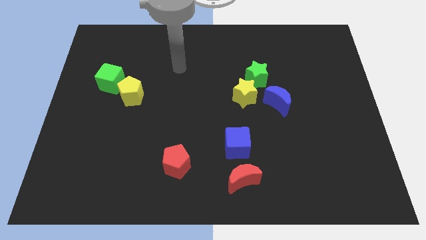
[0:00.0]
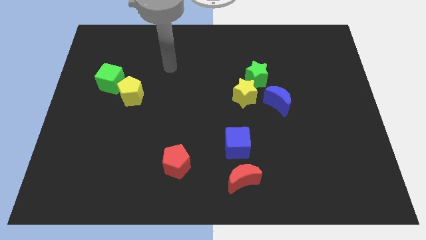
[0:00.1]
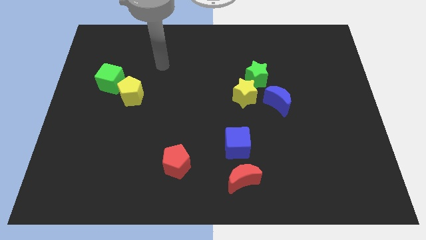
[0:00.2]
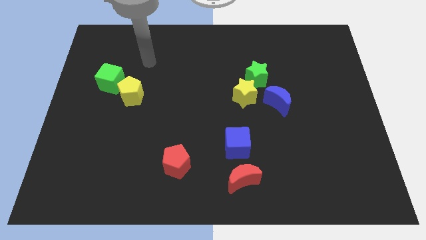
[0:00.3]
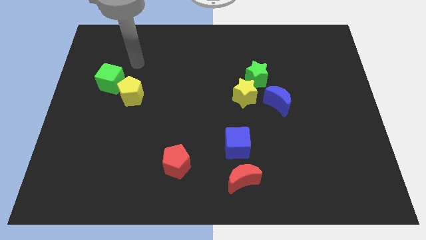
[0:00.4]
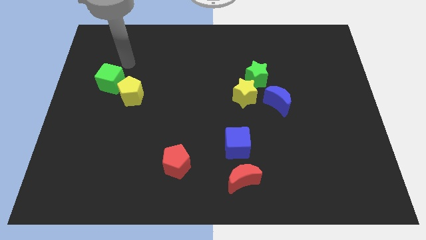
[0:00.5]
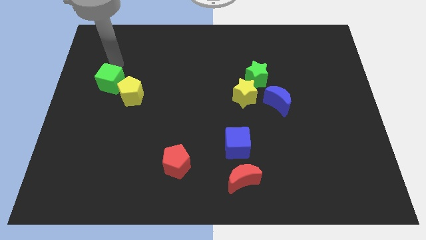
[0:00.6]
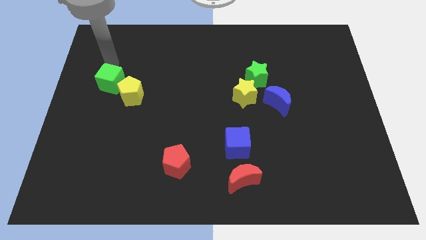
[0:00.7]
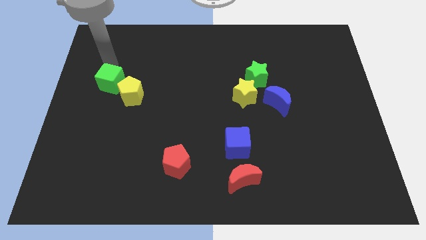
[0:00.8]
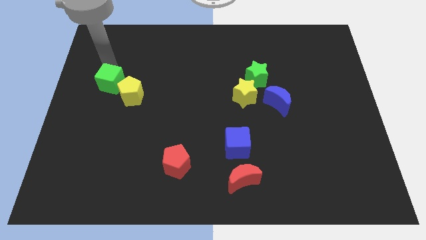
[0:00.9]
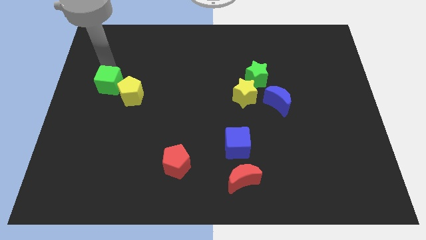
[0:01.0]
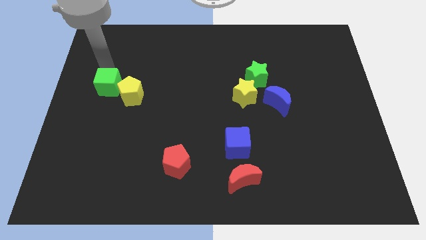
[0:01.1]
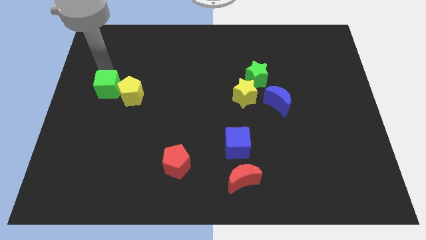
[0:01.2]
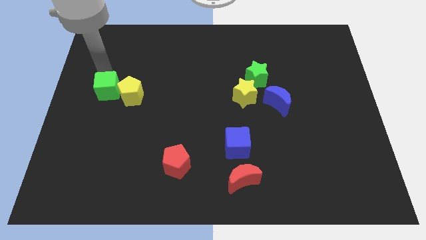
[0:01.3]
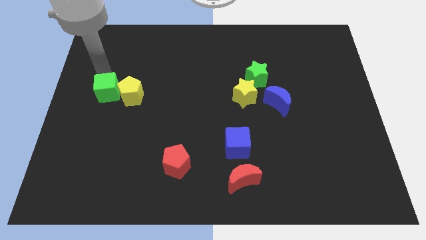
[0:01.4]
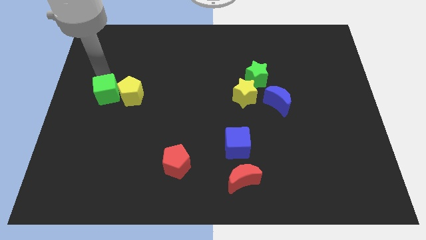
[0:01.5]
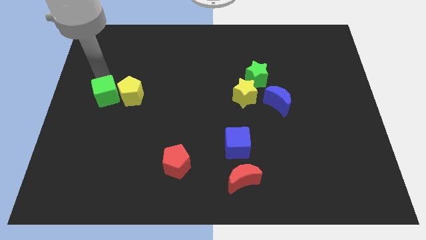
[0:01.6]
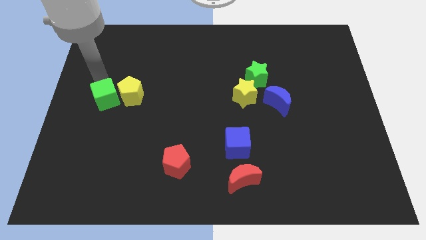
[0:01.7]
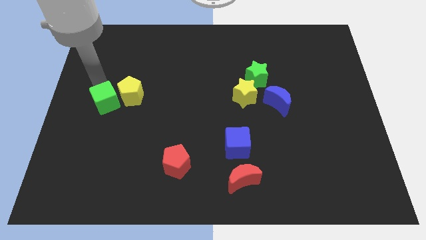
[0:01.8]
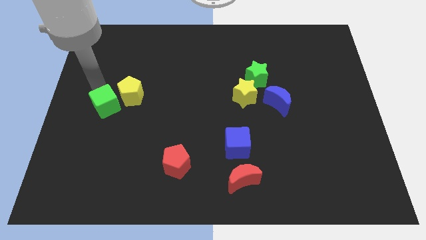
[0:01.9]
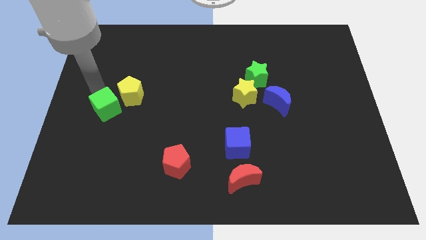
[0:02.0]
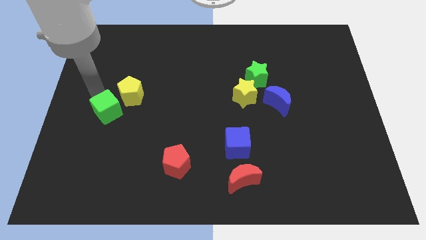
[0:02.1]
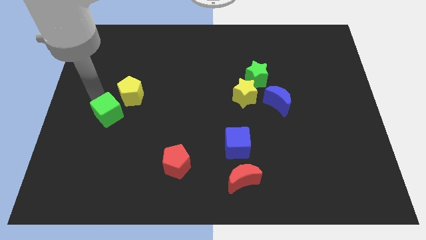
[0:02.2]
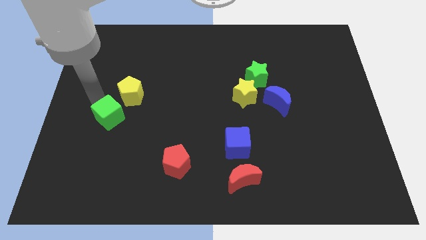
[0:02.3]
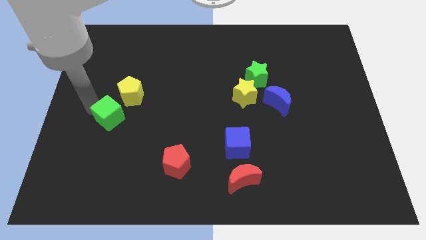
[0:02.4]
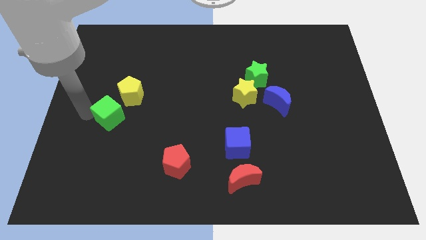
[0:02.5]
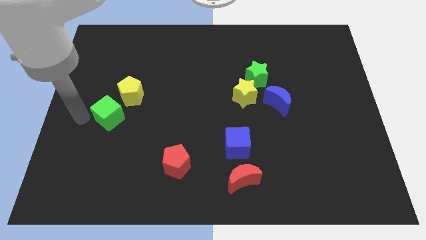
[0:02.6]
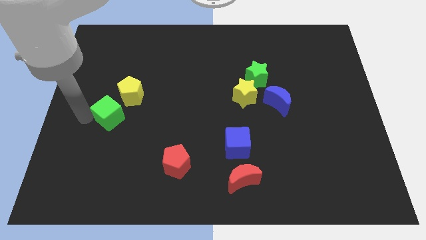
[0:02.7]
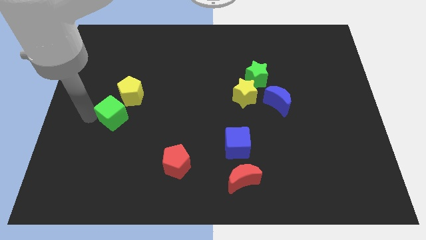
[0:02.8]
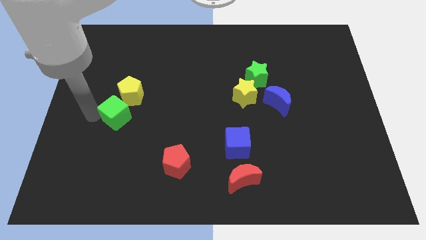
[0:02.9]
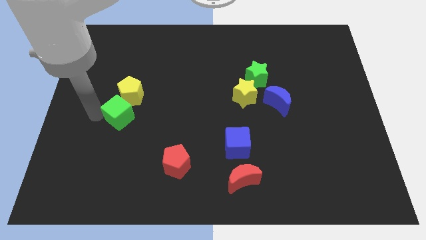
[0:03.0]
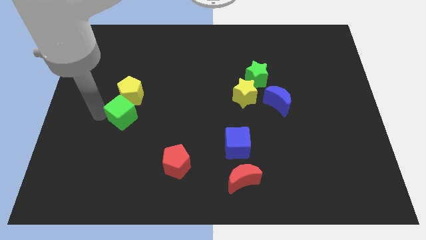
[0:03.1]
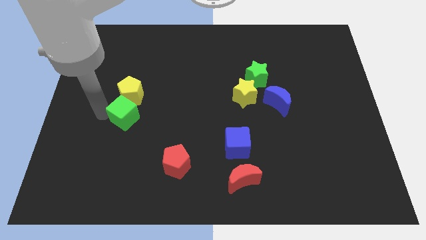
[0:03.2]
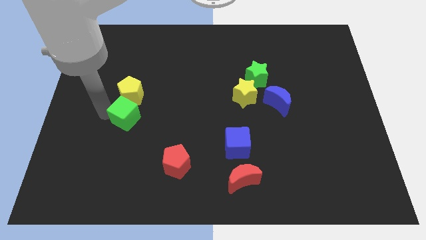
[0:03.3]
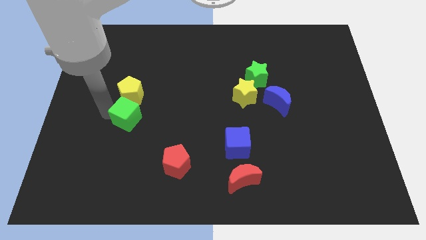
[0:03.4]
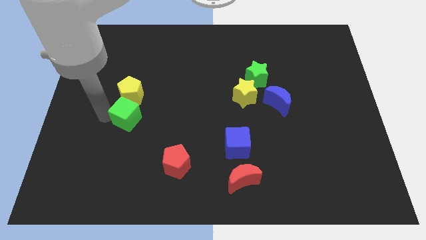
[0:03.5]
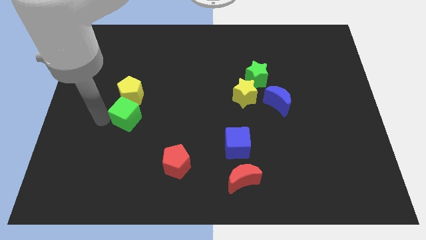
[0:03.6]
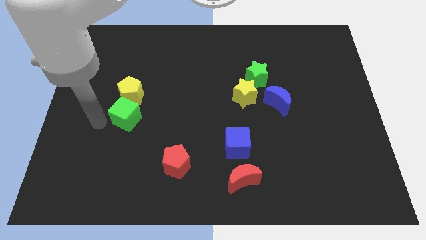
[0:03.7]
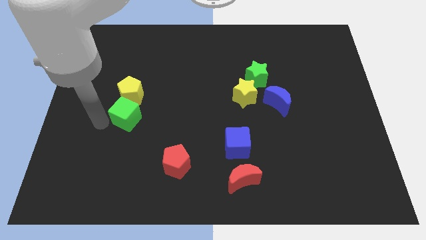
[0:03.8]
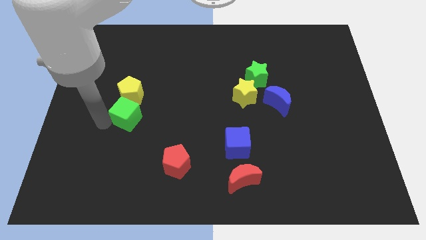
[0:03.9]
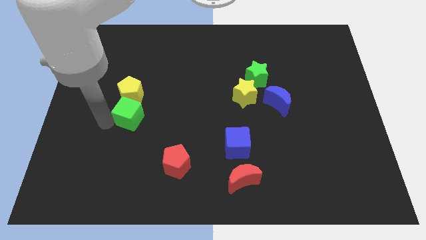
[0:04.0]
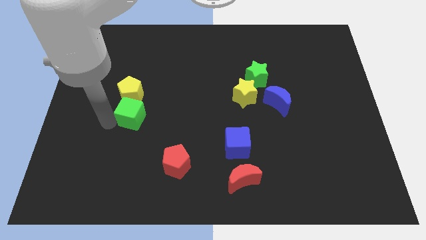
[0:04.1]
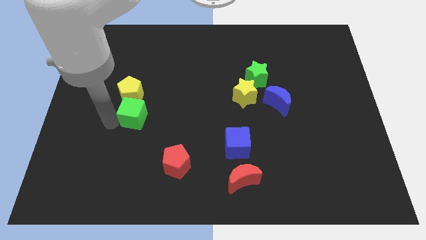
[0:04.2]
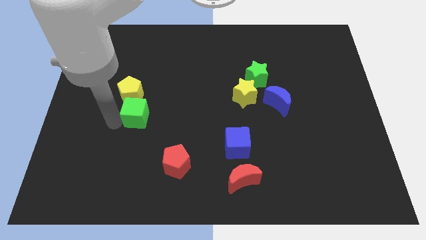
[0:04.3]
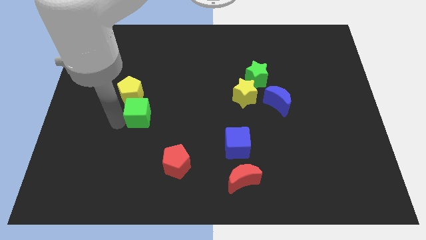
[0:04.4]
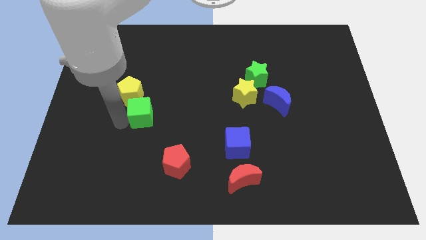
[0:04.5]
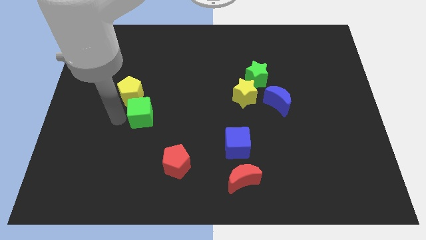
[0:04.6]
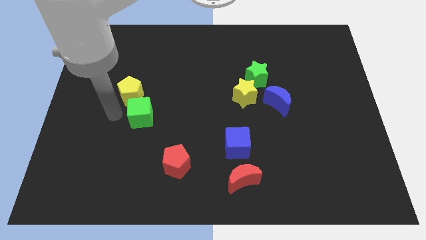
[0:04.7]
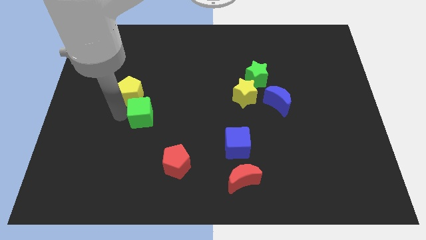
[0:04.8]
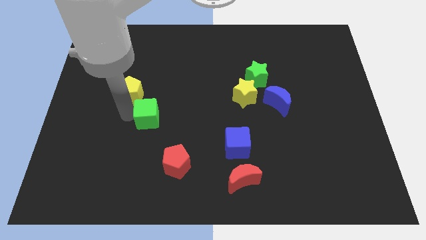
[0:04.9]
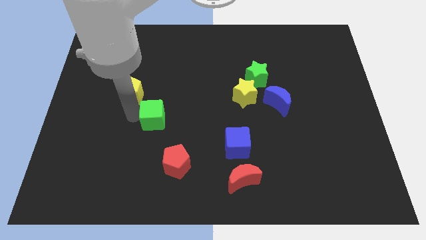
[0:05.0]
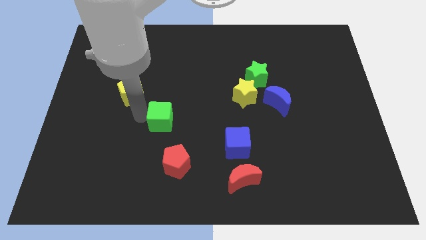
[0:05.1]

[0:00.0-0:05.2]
push the green cube above the red pentagon

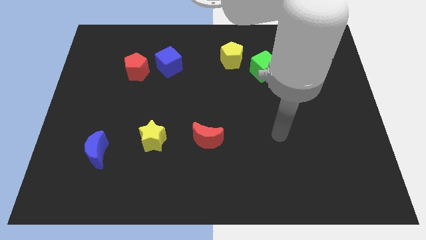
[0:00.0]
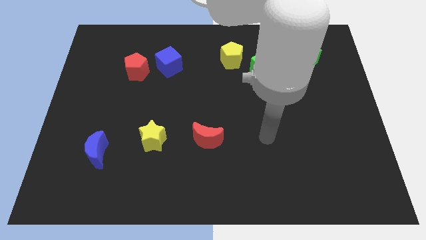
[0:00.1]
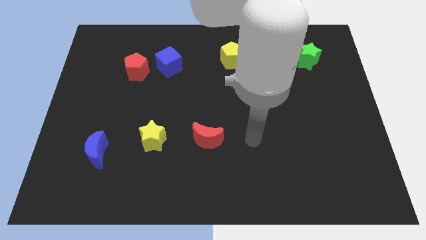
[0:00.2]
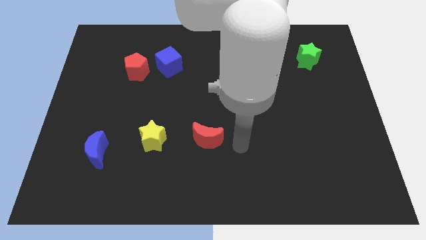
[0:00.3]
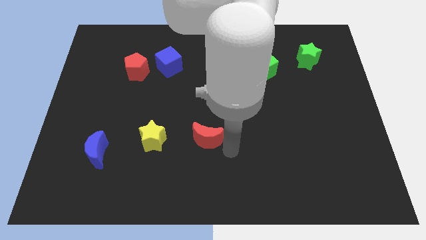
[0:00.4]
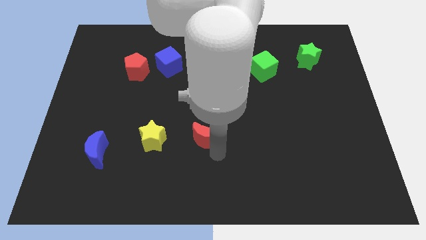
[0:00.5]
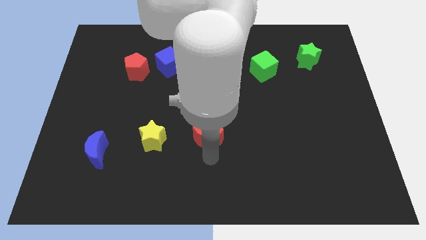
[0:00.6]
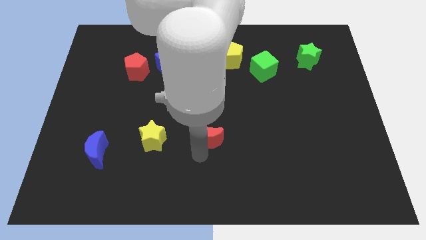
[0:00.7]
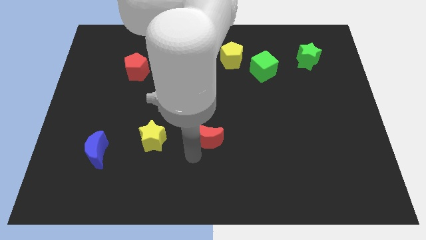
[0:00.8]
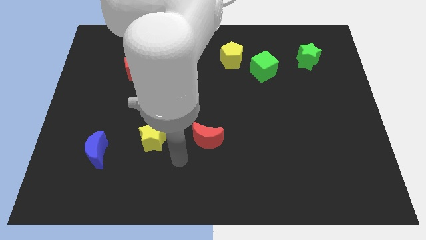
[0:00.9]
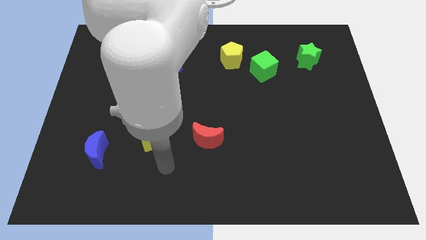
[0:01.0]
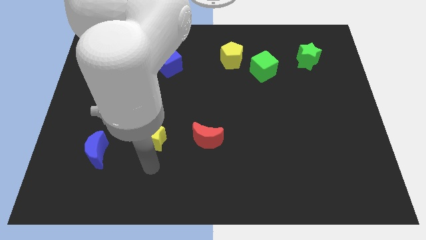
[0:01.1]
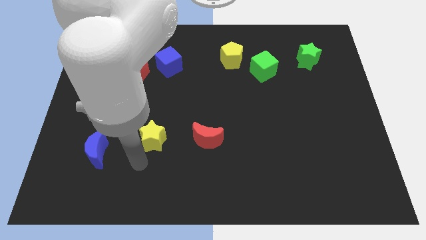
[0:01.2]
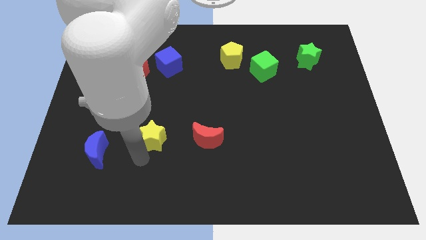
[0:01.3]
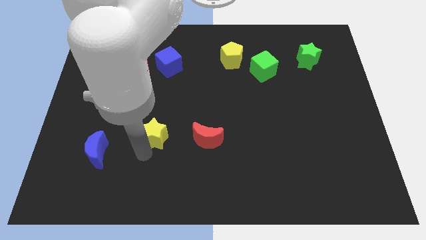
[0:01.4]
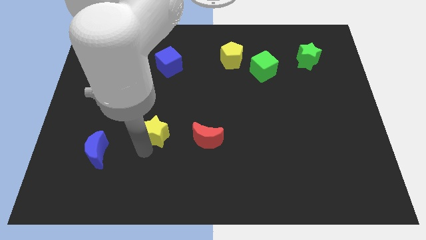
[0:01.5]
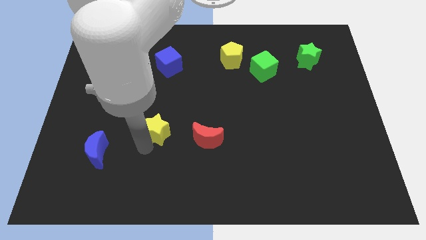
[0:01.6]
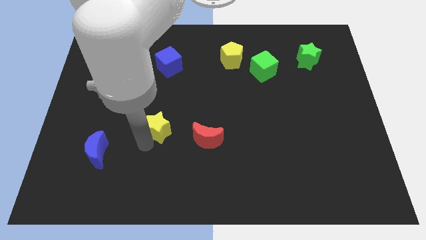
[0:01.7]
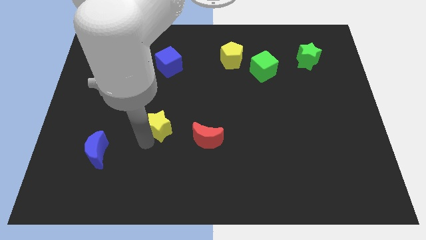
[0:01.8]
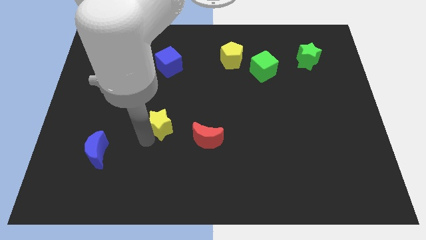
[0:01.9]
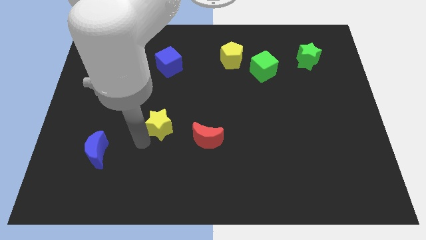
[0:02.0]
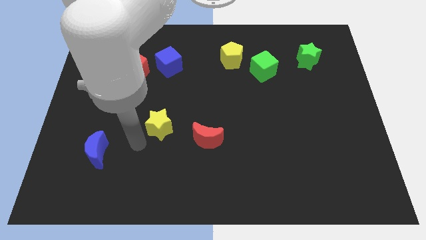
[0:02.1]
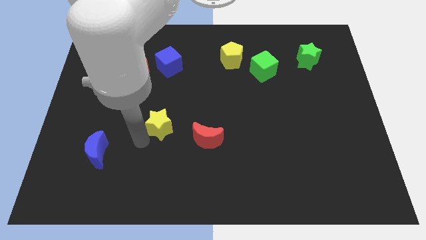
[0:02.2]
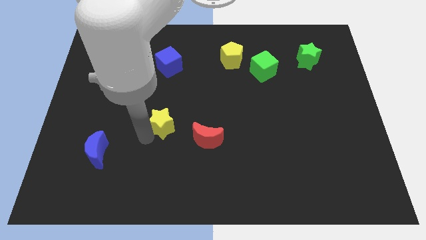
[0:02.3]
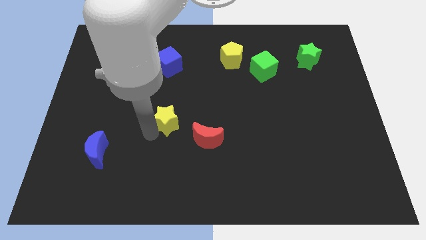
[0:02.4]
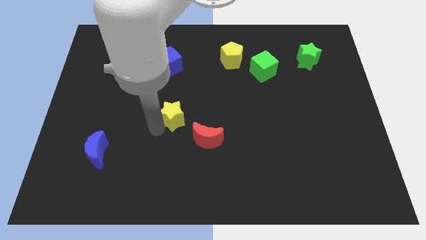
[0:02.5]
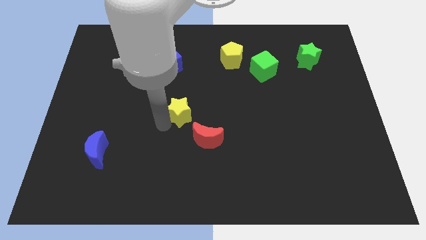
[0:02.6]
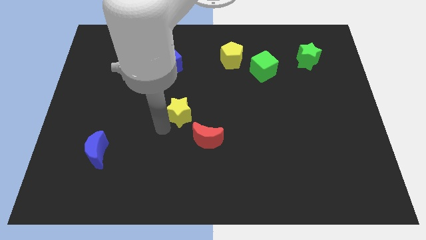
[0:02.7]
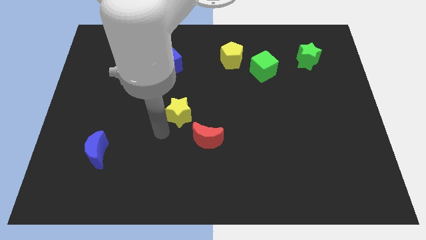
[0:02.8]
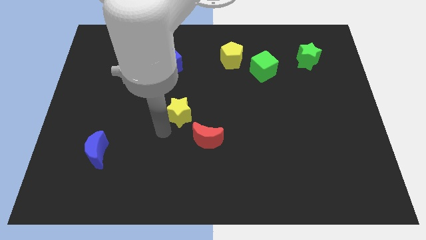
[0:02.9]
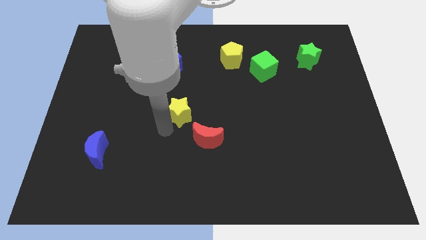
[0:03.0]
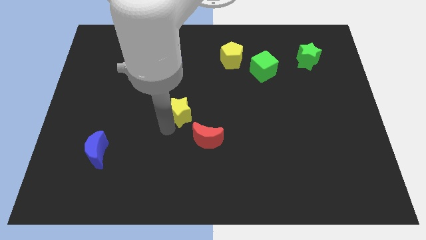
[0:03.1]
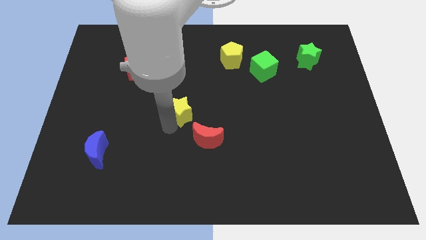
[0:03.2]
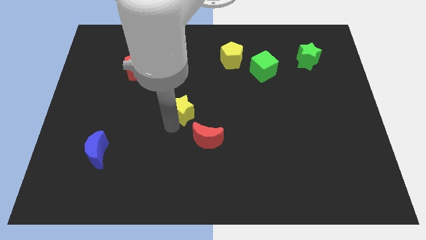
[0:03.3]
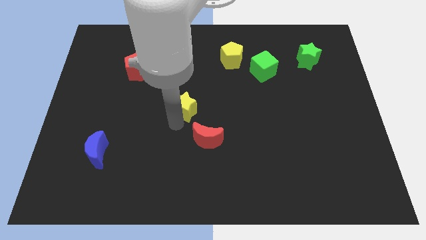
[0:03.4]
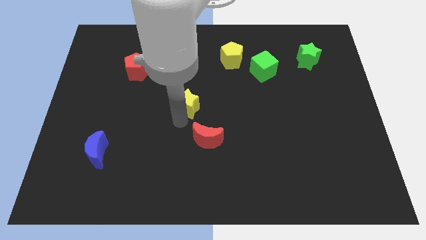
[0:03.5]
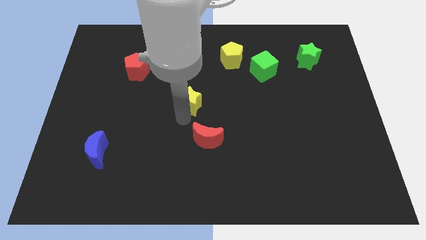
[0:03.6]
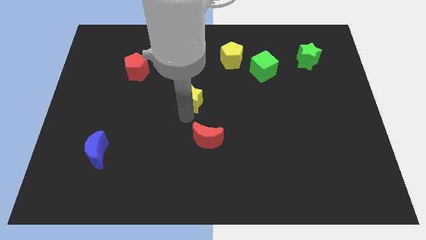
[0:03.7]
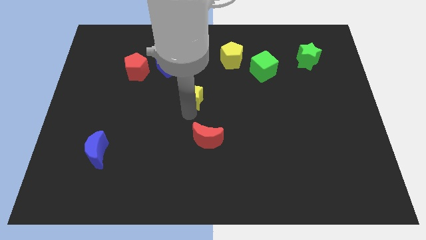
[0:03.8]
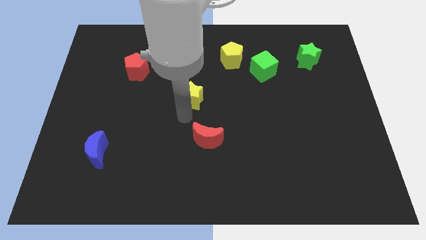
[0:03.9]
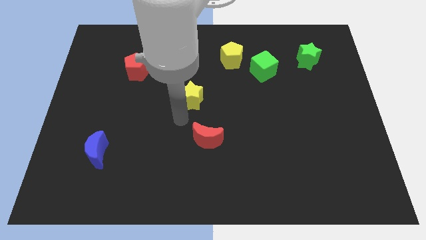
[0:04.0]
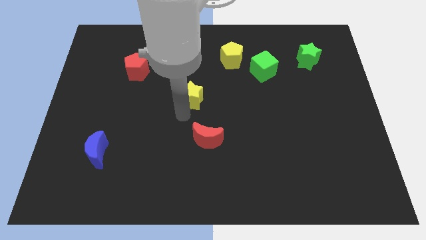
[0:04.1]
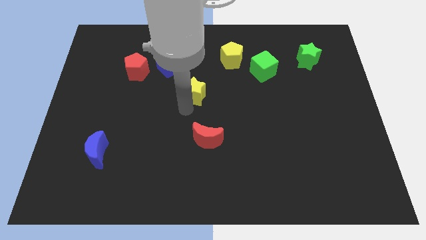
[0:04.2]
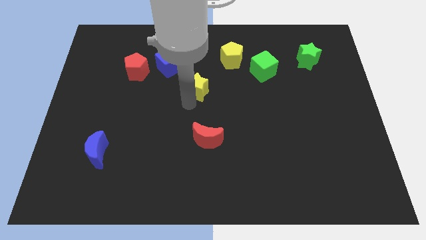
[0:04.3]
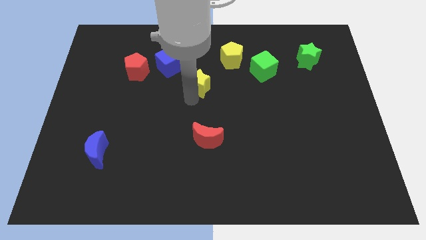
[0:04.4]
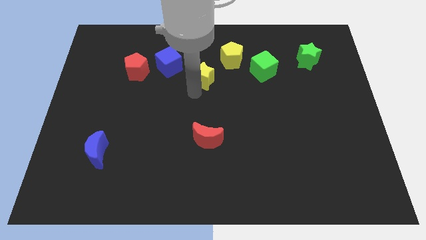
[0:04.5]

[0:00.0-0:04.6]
move the yellow star just right of the blue cube
